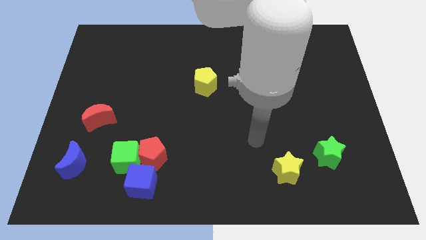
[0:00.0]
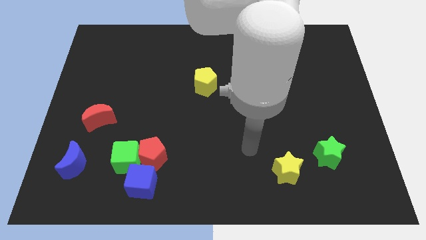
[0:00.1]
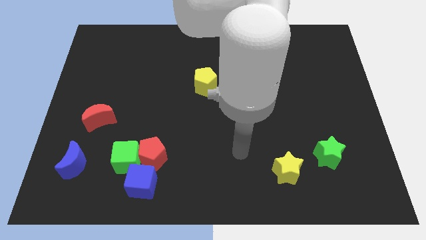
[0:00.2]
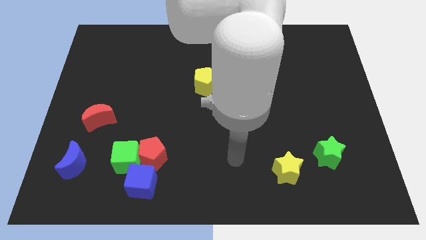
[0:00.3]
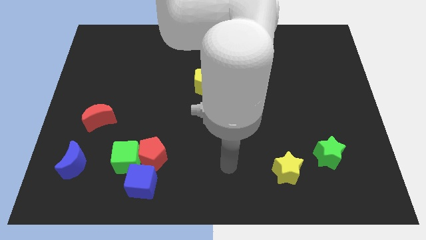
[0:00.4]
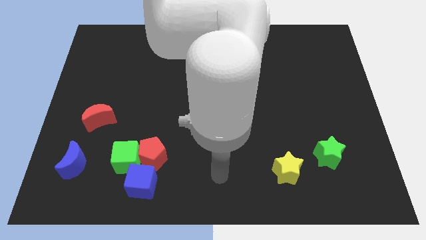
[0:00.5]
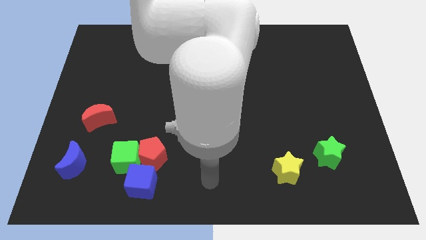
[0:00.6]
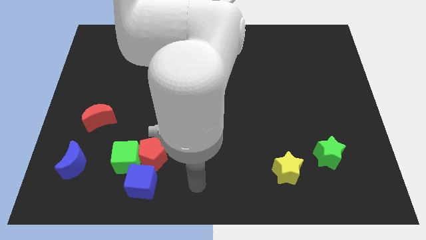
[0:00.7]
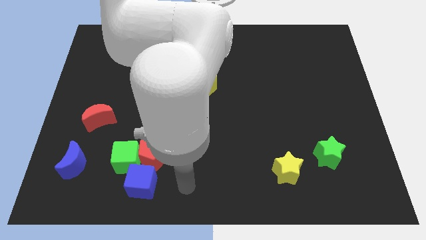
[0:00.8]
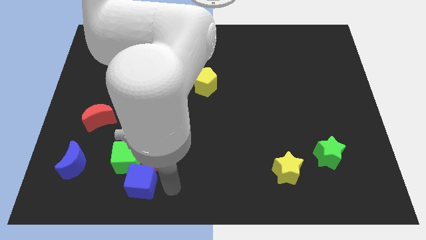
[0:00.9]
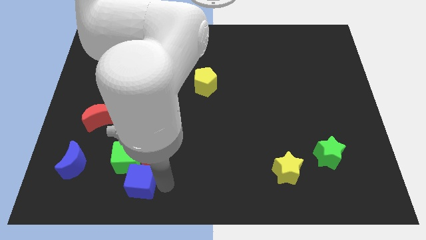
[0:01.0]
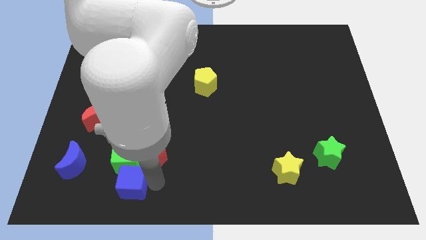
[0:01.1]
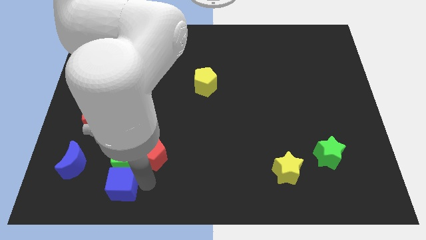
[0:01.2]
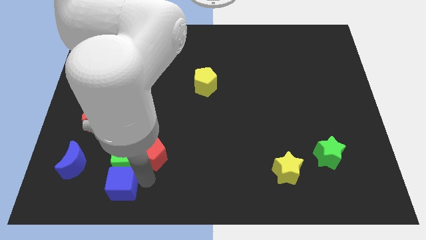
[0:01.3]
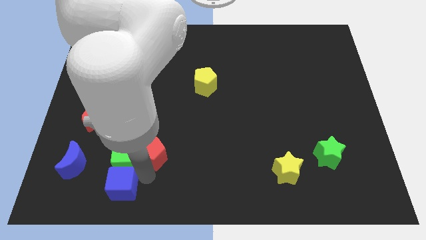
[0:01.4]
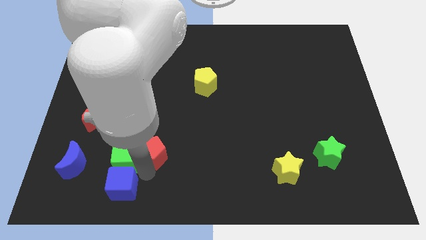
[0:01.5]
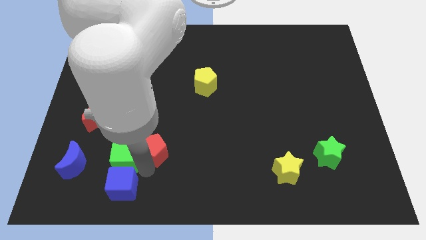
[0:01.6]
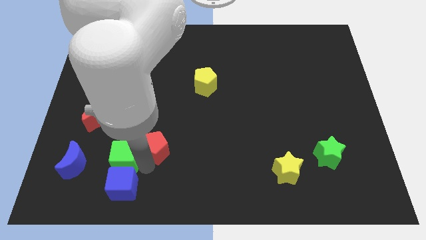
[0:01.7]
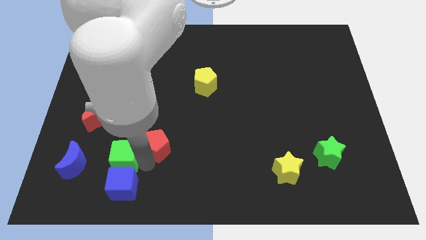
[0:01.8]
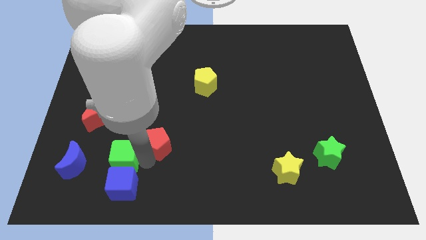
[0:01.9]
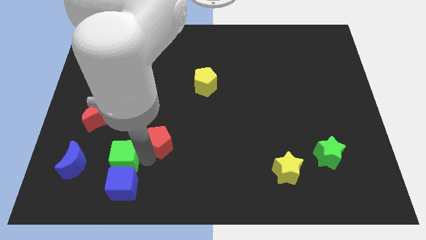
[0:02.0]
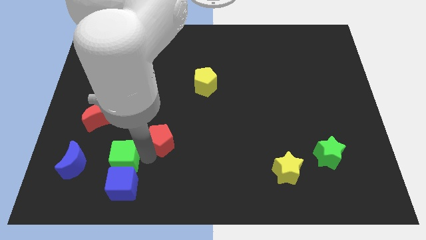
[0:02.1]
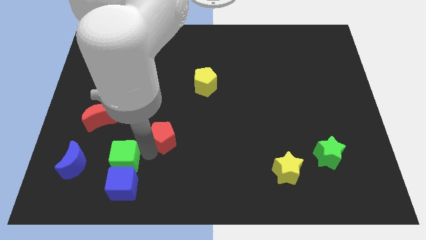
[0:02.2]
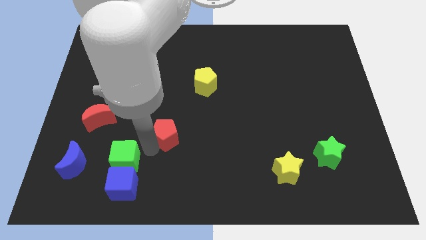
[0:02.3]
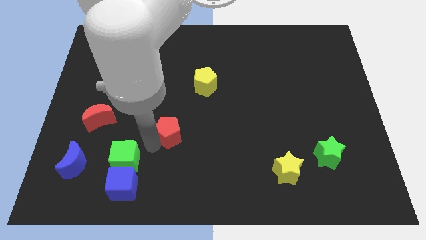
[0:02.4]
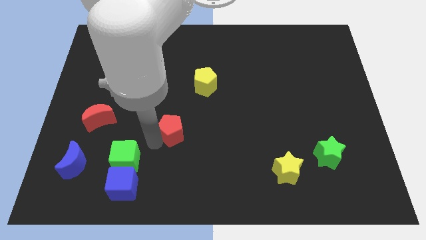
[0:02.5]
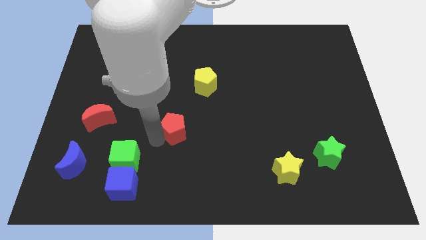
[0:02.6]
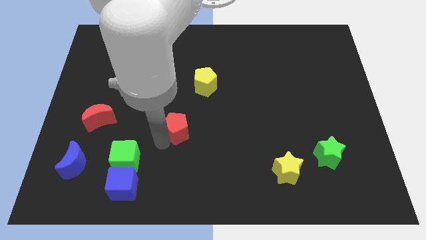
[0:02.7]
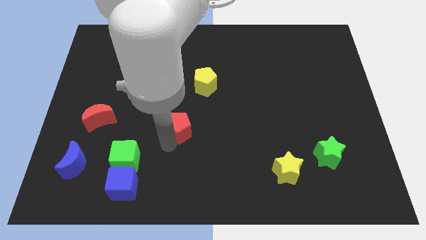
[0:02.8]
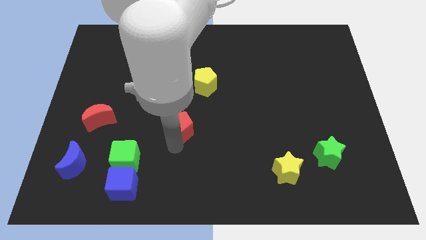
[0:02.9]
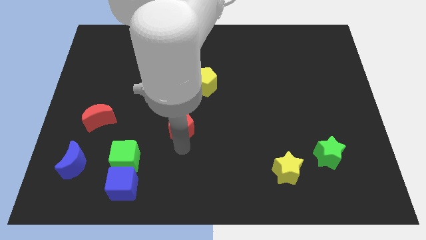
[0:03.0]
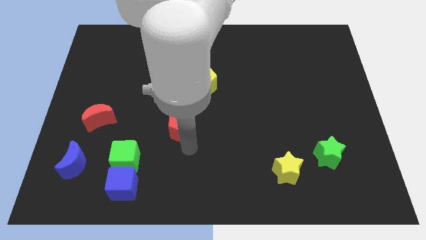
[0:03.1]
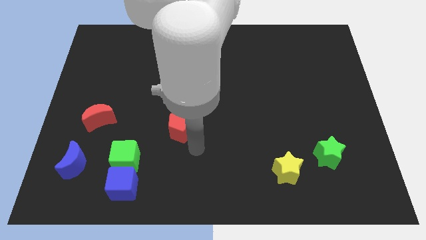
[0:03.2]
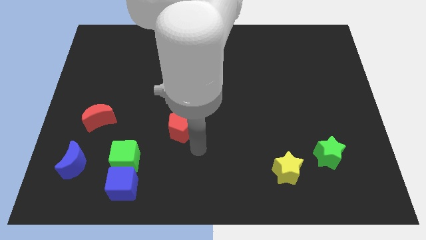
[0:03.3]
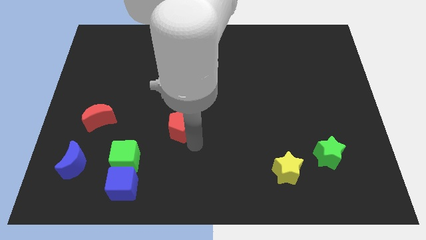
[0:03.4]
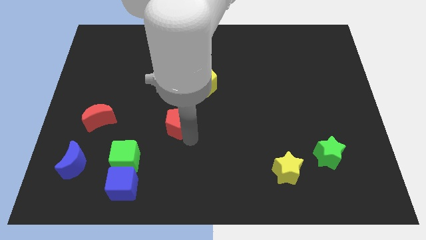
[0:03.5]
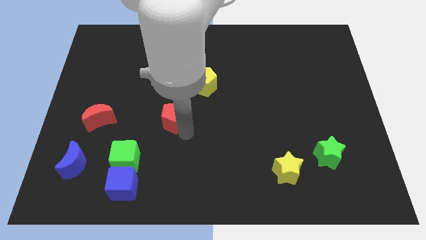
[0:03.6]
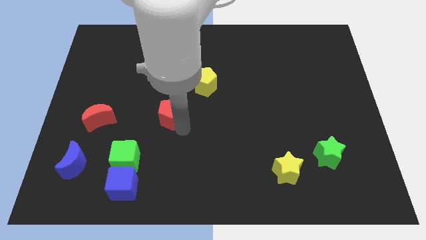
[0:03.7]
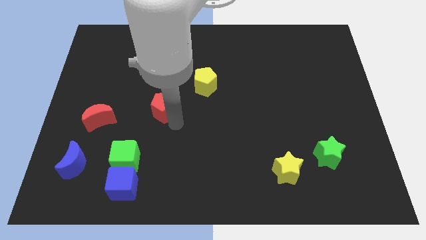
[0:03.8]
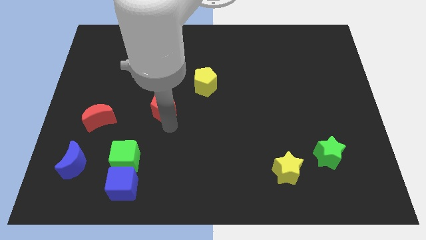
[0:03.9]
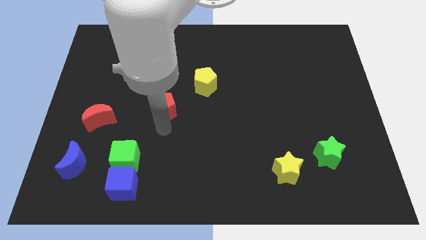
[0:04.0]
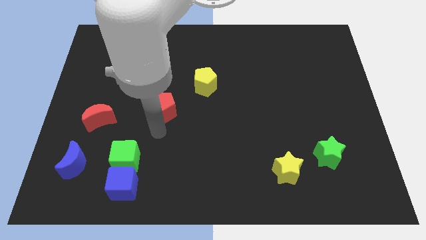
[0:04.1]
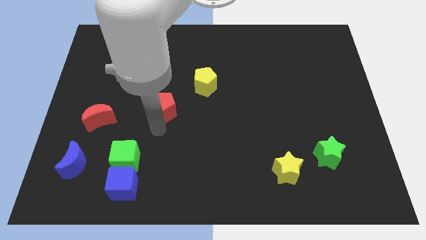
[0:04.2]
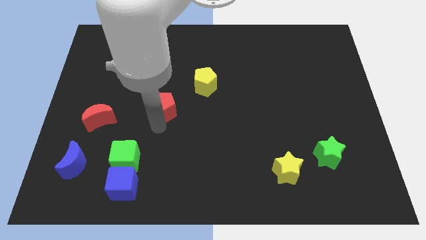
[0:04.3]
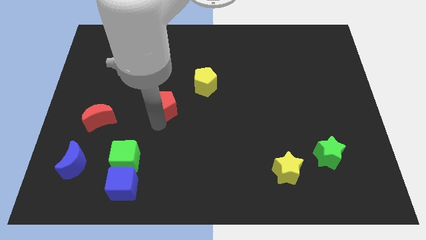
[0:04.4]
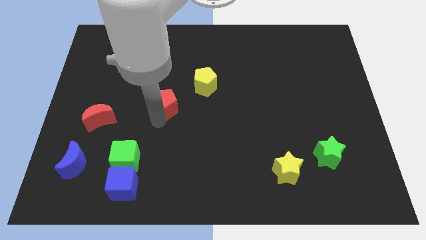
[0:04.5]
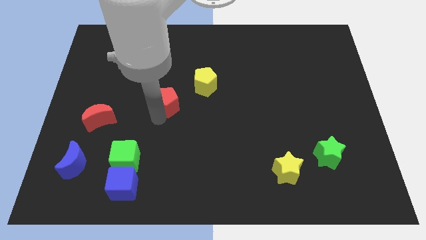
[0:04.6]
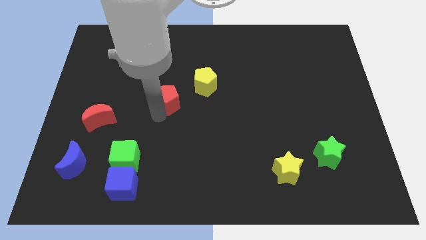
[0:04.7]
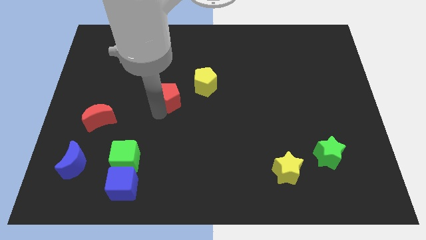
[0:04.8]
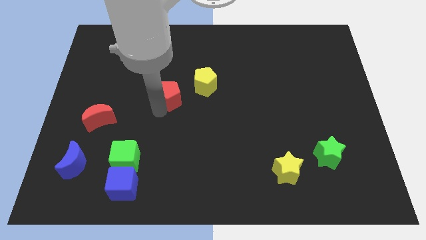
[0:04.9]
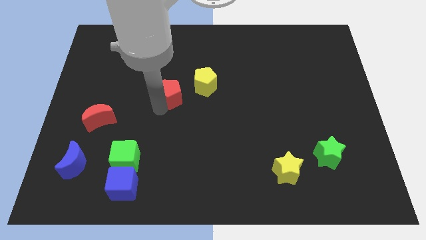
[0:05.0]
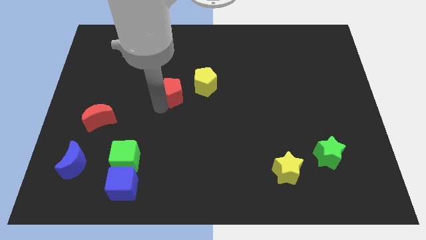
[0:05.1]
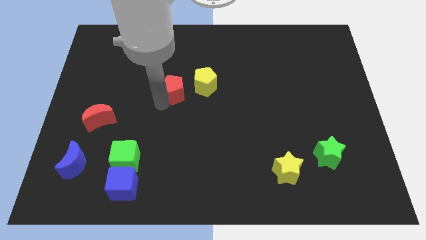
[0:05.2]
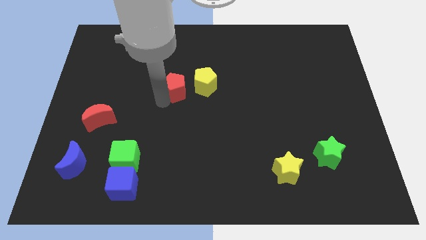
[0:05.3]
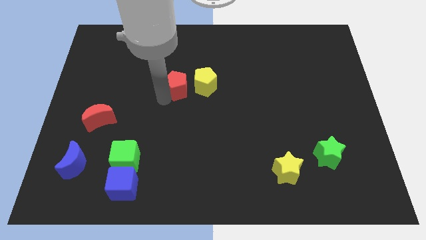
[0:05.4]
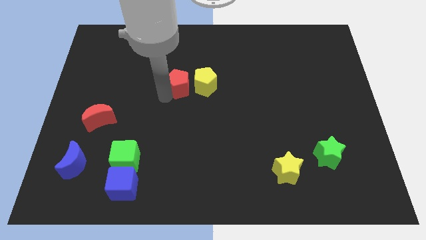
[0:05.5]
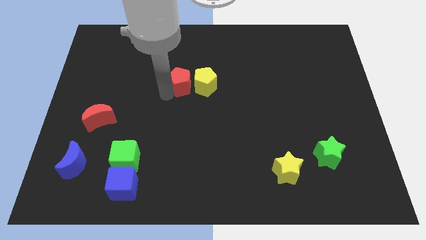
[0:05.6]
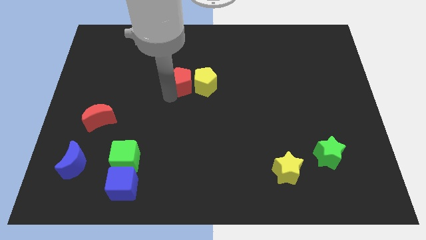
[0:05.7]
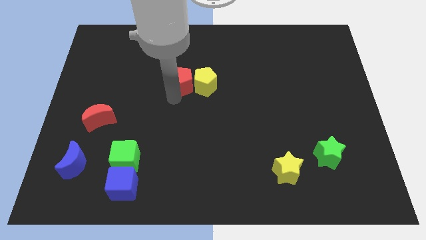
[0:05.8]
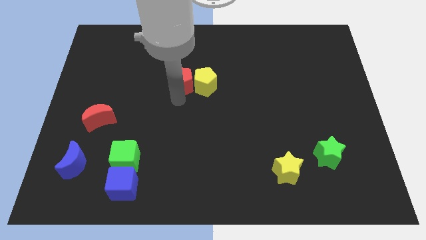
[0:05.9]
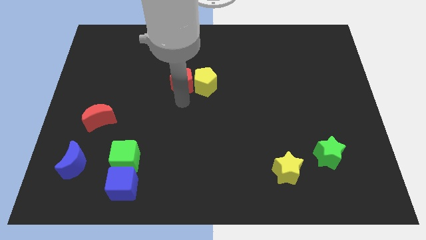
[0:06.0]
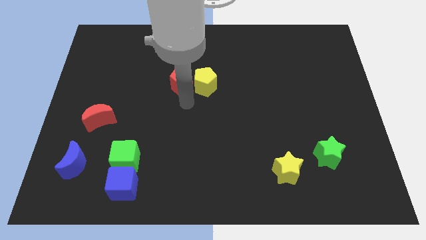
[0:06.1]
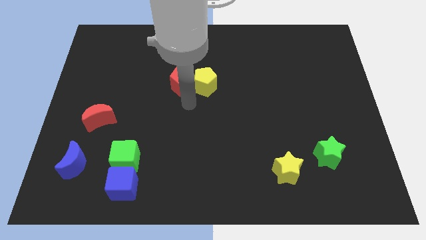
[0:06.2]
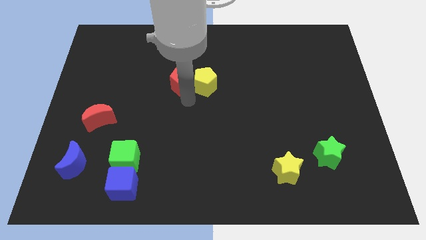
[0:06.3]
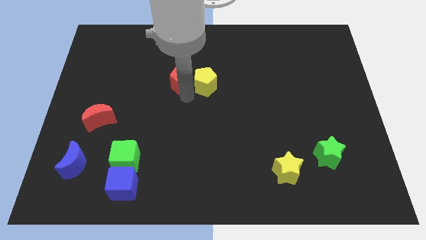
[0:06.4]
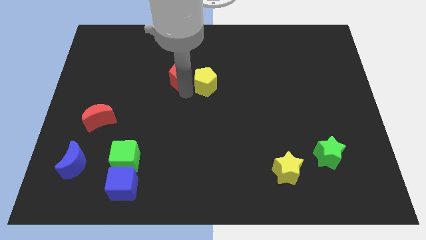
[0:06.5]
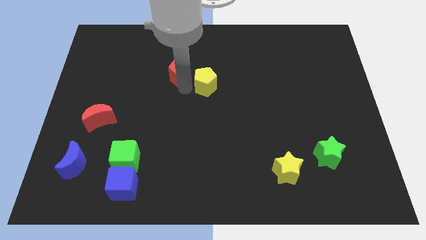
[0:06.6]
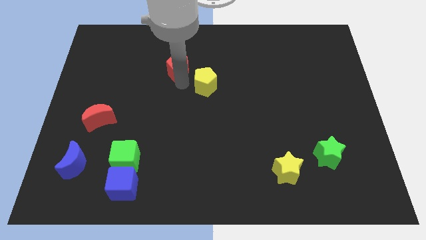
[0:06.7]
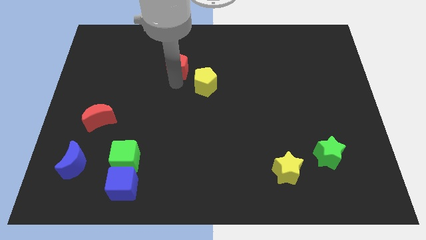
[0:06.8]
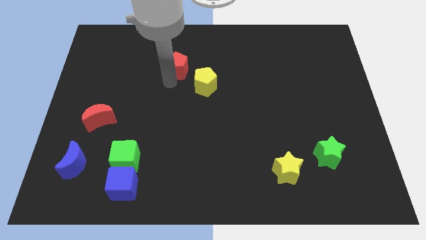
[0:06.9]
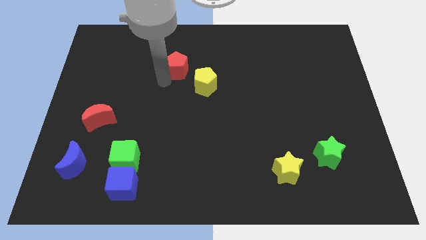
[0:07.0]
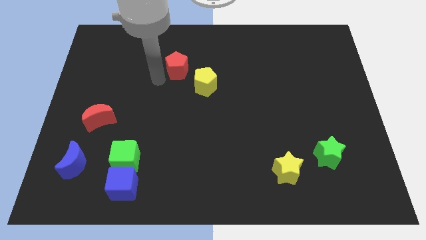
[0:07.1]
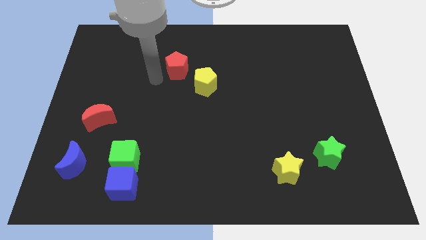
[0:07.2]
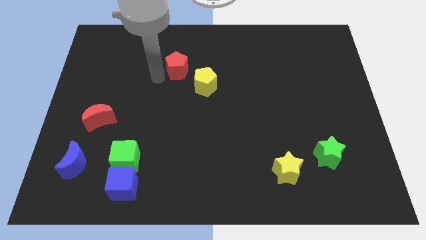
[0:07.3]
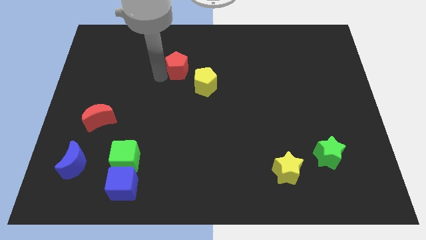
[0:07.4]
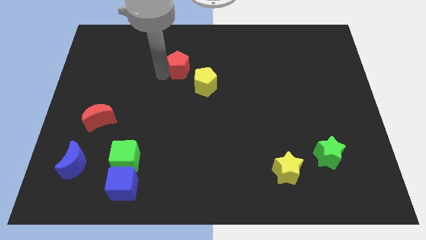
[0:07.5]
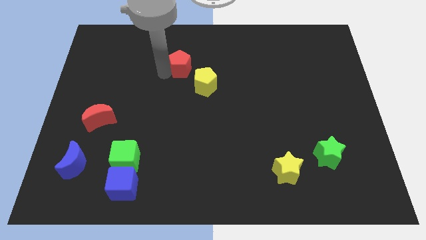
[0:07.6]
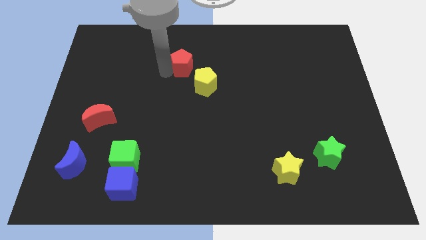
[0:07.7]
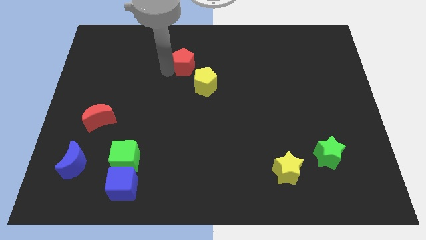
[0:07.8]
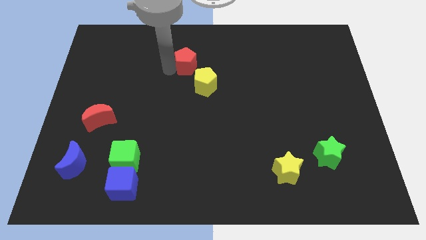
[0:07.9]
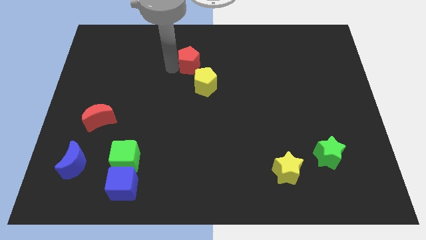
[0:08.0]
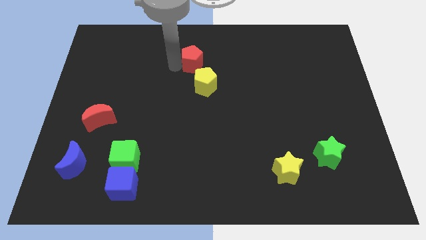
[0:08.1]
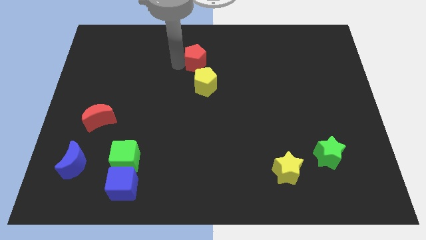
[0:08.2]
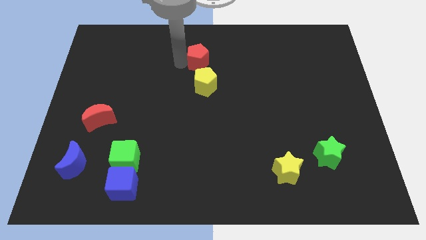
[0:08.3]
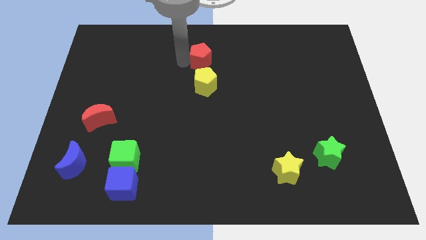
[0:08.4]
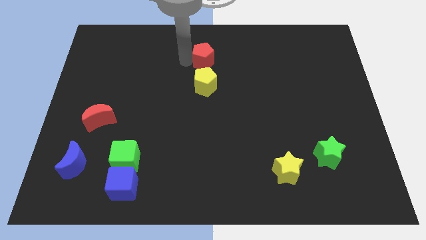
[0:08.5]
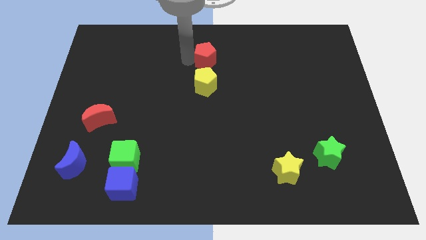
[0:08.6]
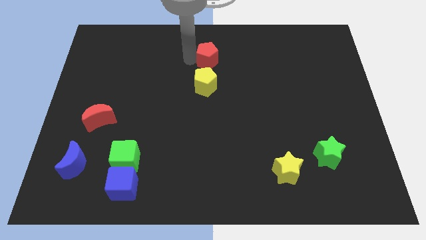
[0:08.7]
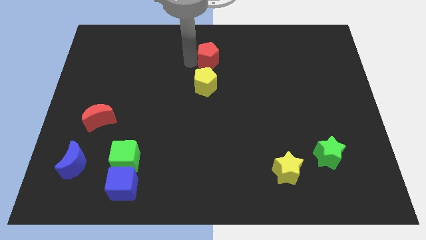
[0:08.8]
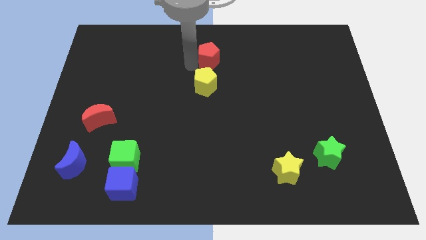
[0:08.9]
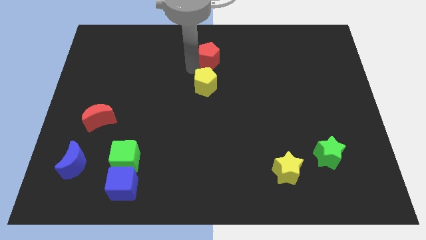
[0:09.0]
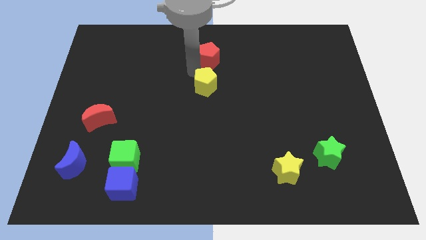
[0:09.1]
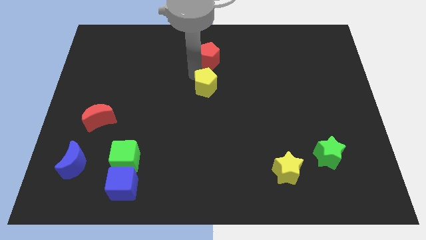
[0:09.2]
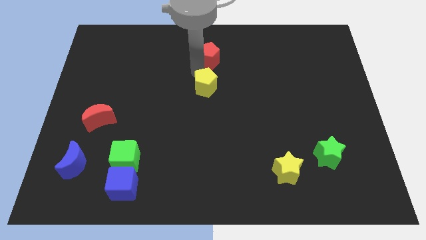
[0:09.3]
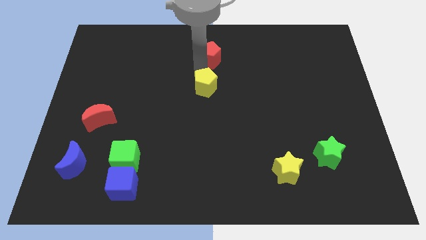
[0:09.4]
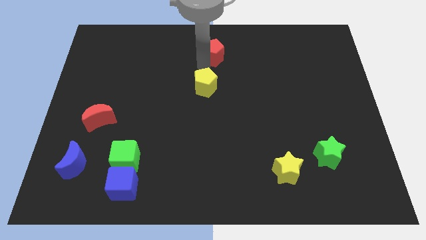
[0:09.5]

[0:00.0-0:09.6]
move the red pentagon to the top side
